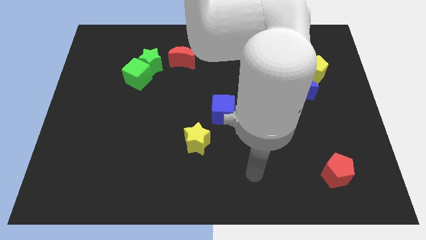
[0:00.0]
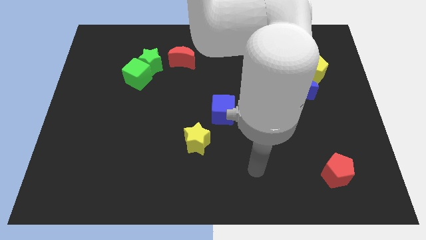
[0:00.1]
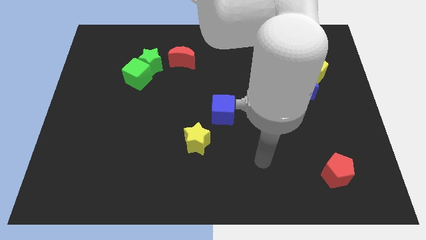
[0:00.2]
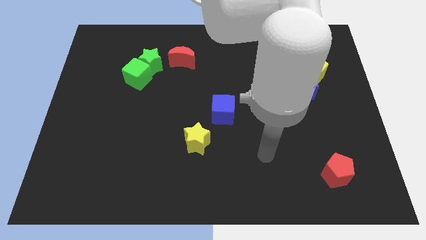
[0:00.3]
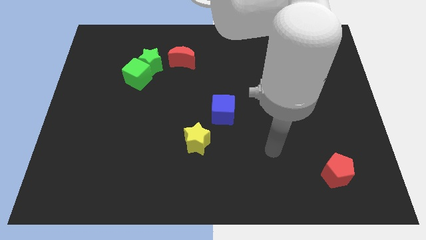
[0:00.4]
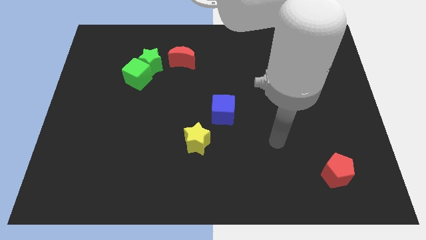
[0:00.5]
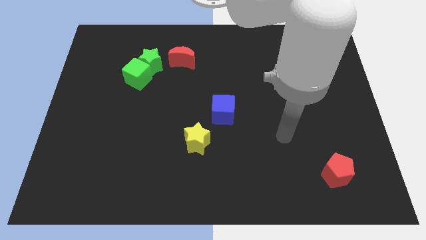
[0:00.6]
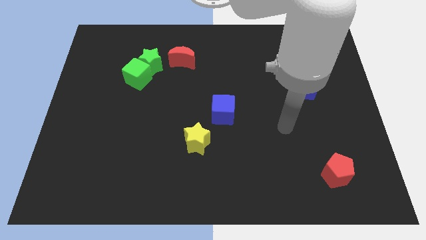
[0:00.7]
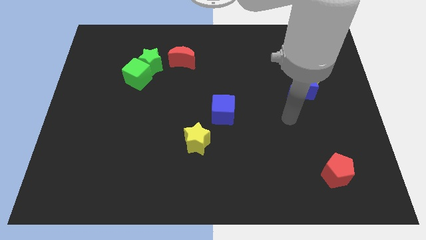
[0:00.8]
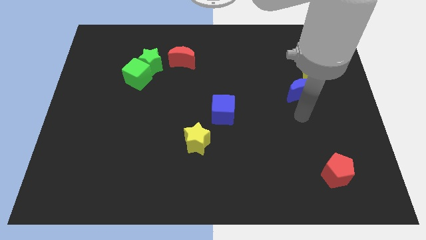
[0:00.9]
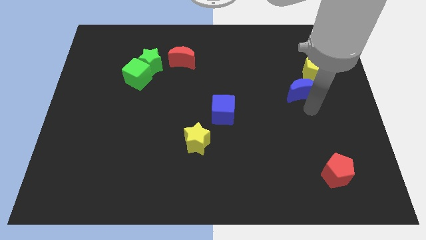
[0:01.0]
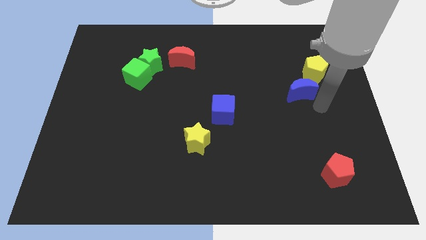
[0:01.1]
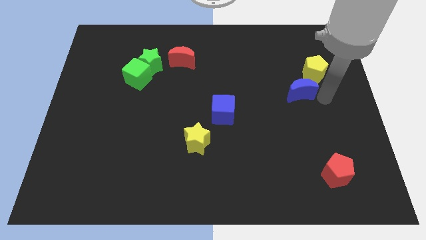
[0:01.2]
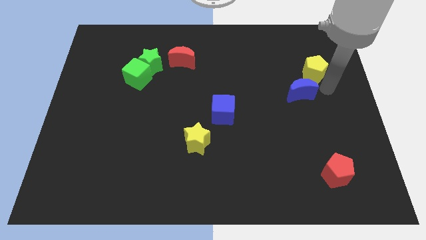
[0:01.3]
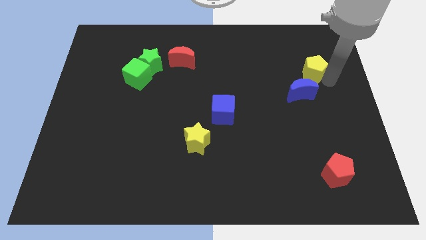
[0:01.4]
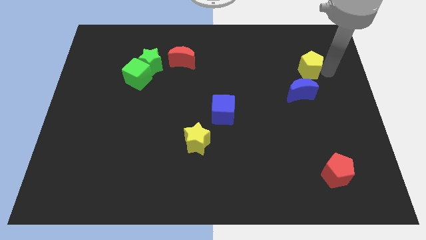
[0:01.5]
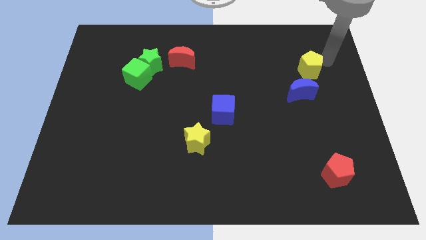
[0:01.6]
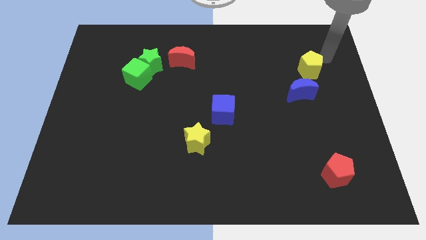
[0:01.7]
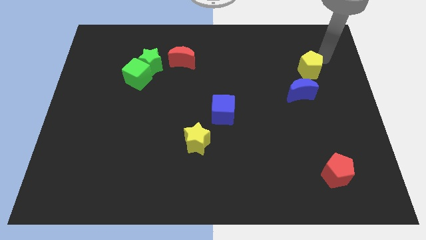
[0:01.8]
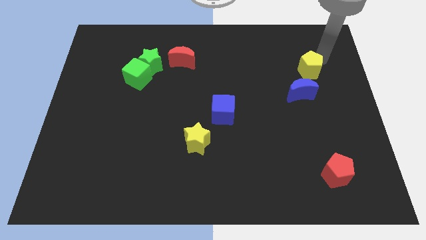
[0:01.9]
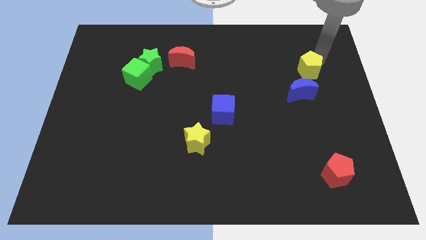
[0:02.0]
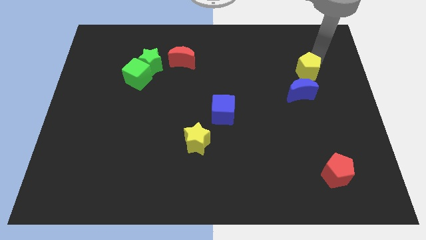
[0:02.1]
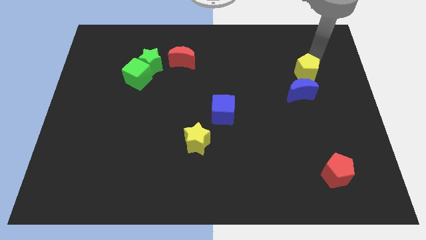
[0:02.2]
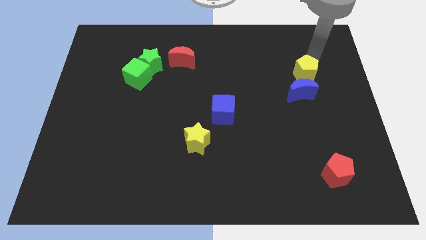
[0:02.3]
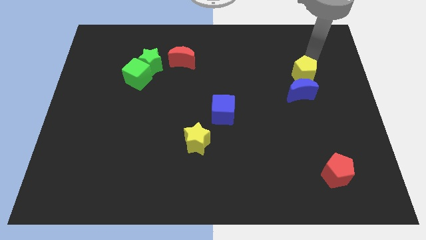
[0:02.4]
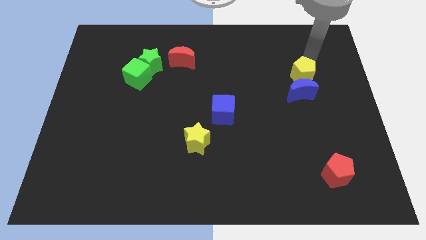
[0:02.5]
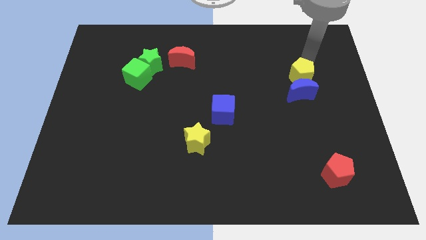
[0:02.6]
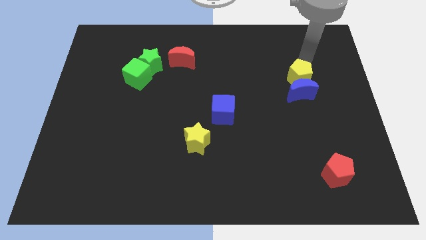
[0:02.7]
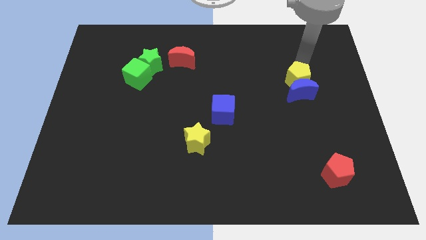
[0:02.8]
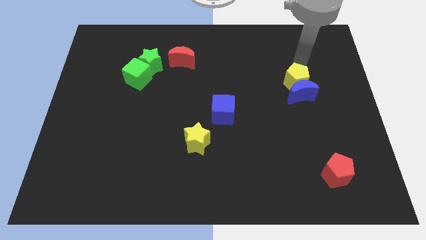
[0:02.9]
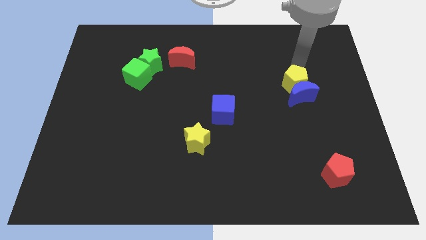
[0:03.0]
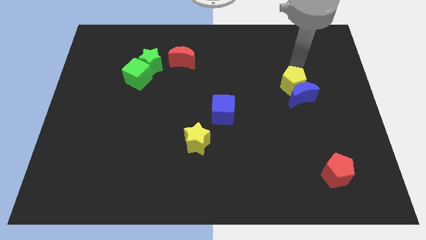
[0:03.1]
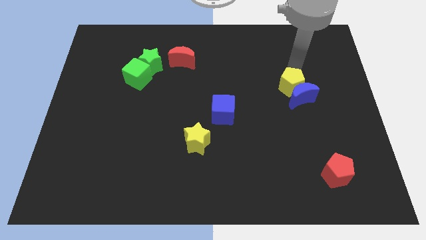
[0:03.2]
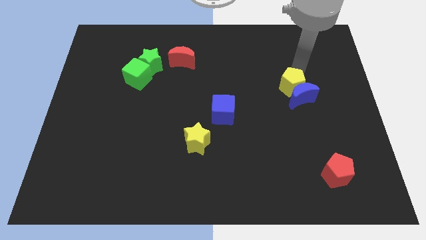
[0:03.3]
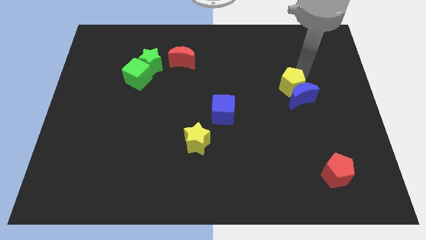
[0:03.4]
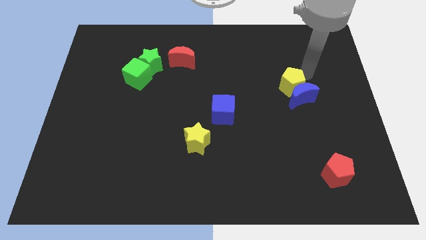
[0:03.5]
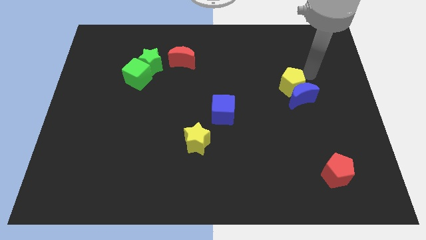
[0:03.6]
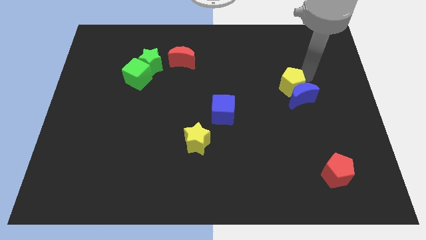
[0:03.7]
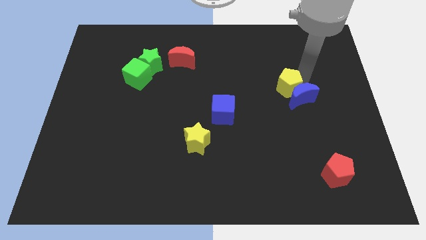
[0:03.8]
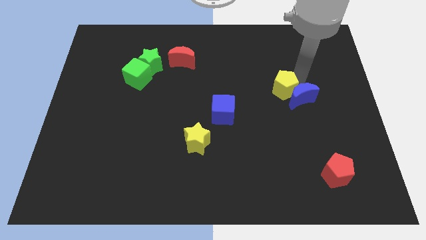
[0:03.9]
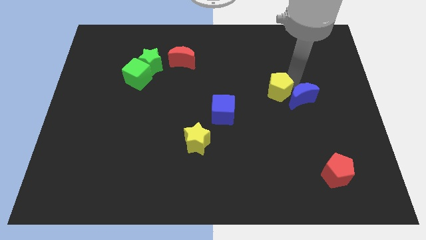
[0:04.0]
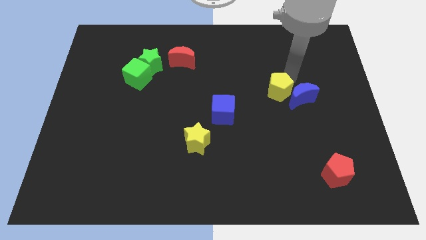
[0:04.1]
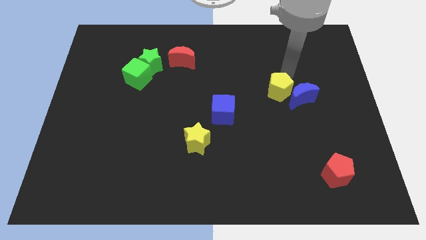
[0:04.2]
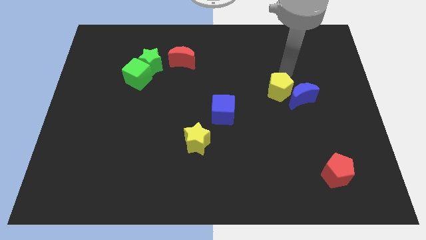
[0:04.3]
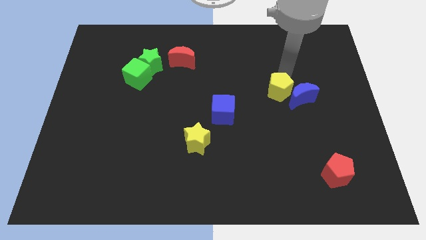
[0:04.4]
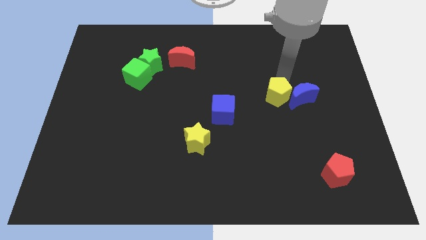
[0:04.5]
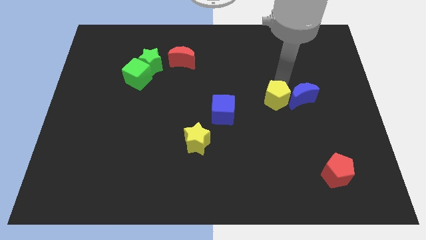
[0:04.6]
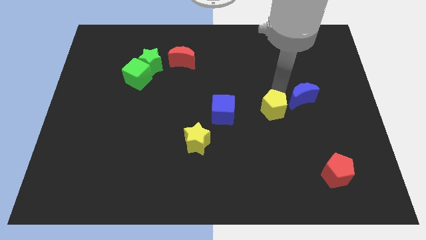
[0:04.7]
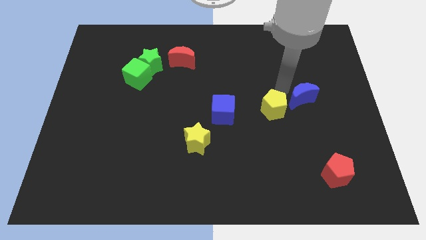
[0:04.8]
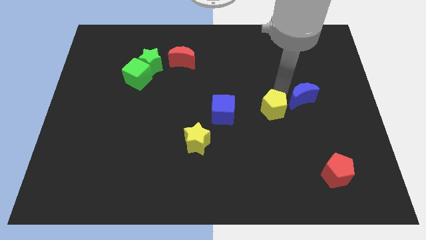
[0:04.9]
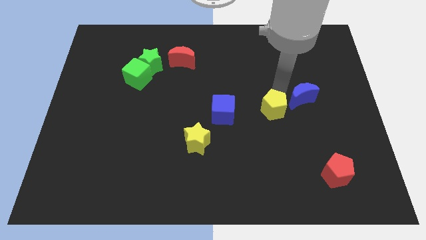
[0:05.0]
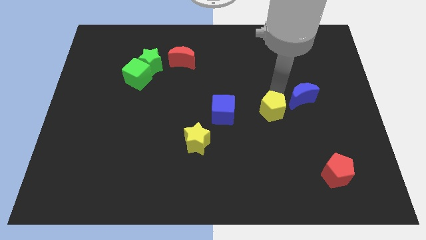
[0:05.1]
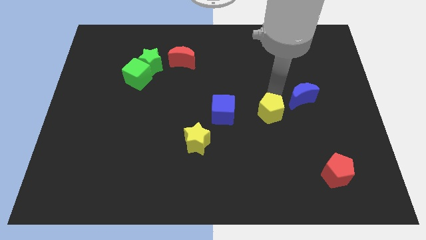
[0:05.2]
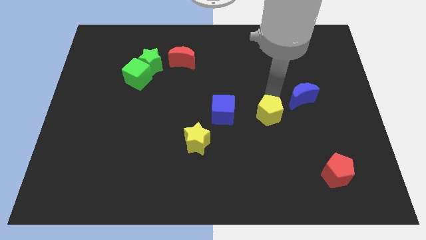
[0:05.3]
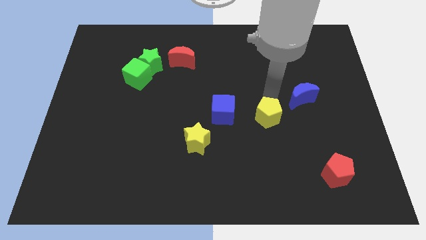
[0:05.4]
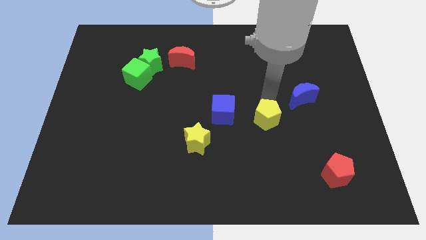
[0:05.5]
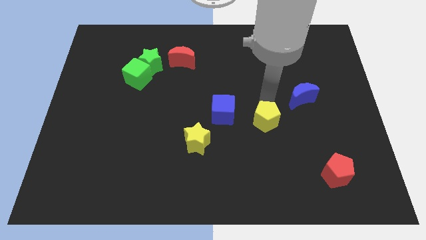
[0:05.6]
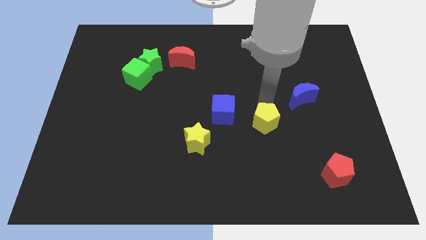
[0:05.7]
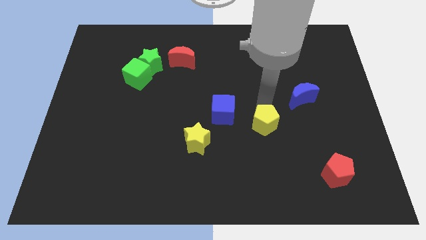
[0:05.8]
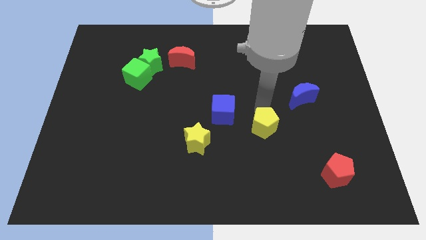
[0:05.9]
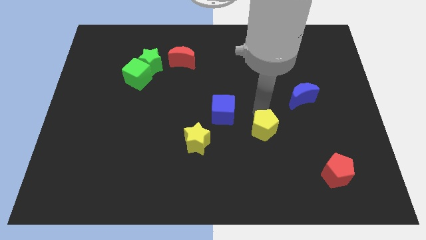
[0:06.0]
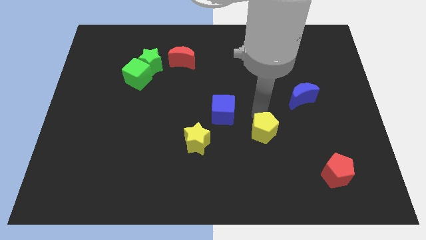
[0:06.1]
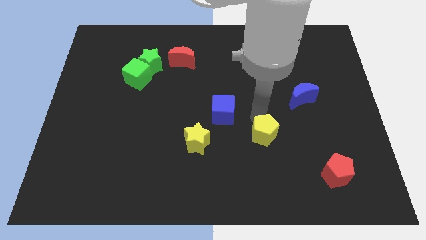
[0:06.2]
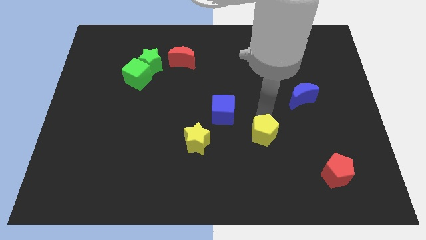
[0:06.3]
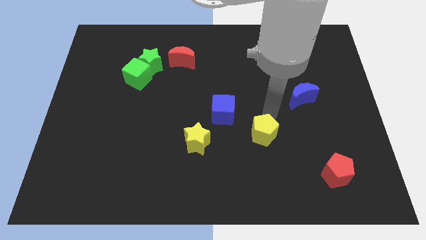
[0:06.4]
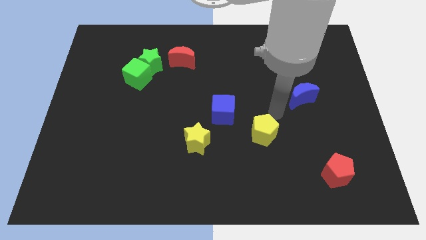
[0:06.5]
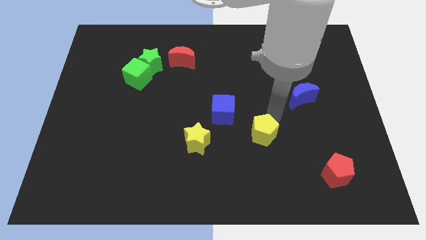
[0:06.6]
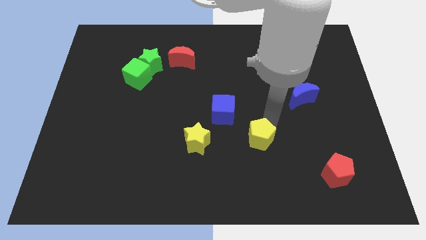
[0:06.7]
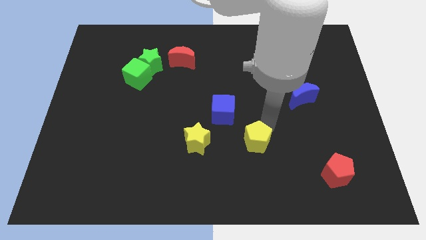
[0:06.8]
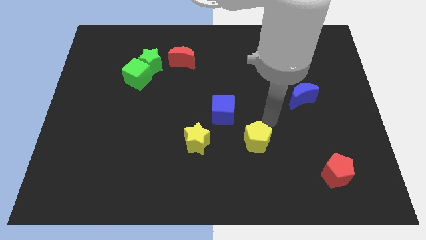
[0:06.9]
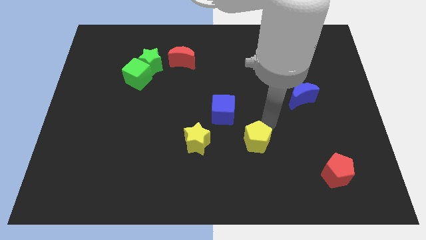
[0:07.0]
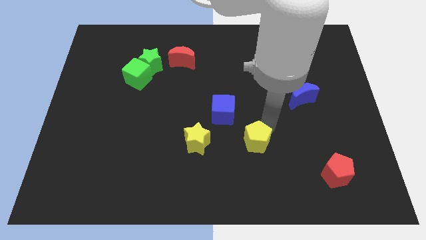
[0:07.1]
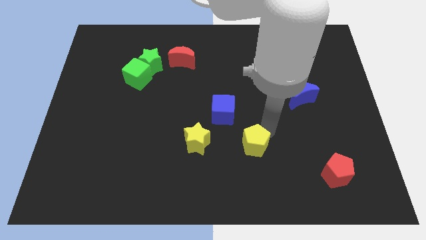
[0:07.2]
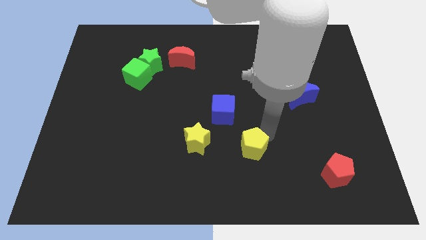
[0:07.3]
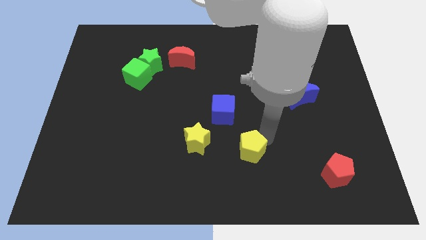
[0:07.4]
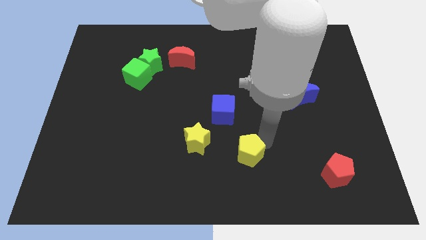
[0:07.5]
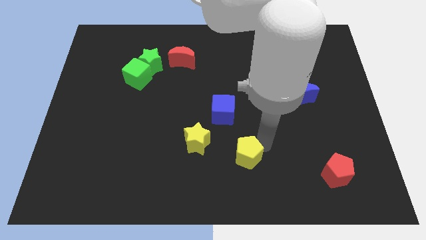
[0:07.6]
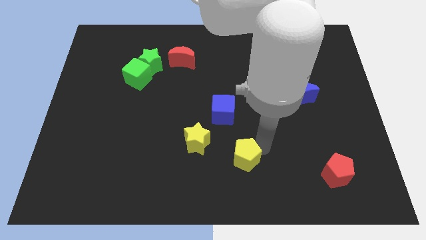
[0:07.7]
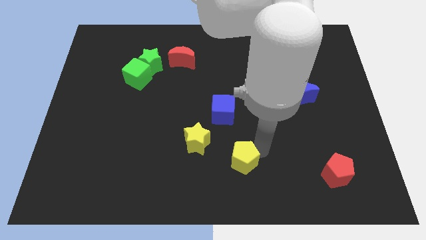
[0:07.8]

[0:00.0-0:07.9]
put the yellow pentagon to the bottom
